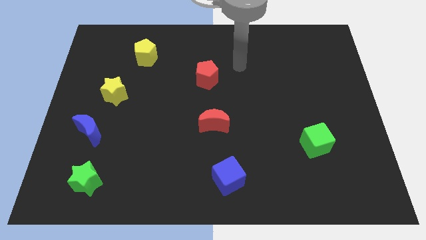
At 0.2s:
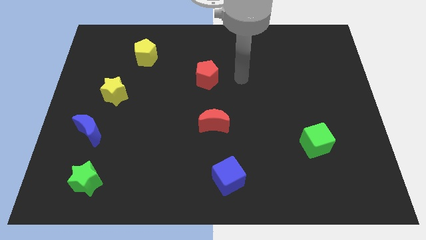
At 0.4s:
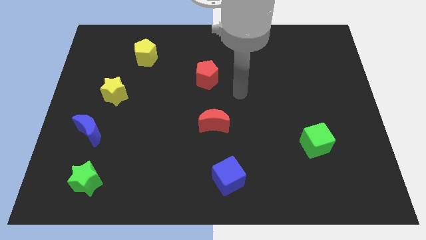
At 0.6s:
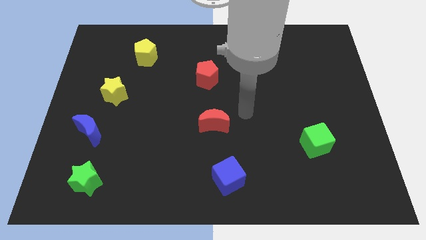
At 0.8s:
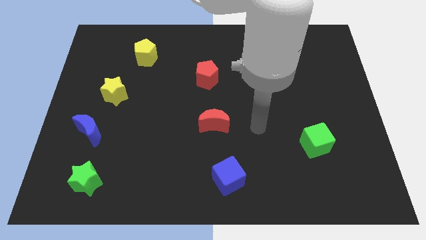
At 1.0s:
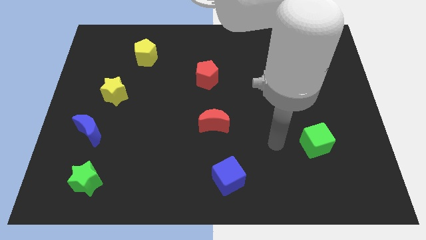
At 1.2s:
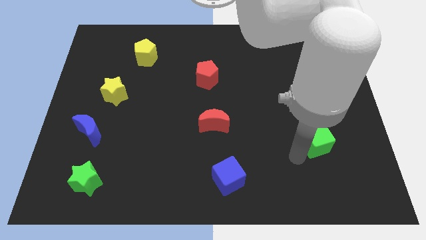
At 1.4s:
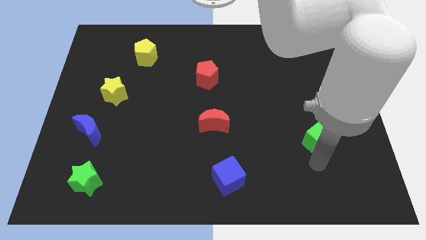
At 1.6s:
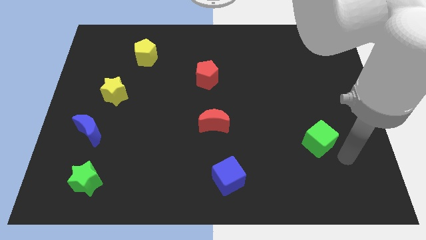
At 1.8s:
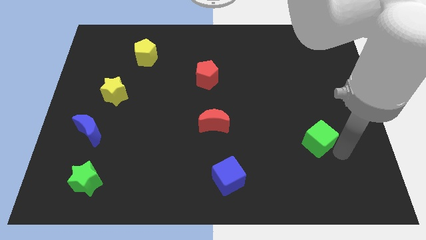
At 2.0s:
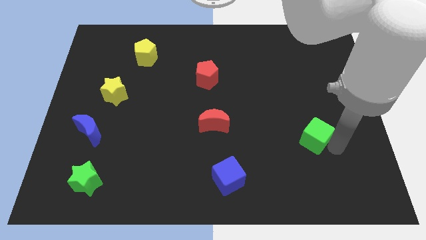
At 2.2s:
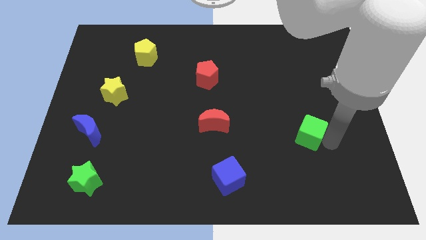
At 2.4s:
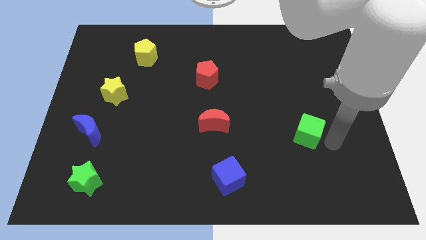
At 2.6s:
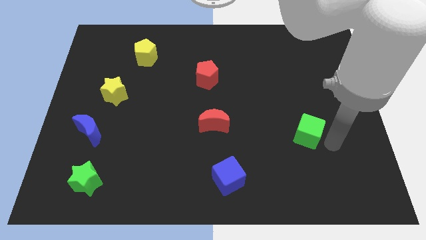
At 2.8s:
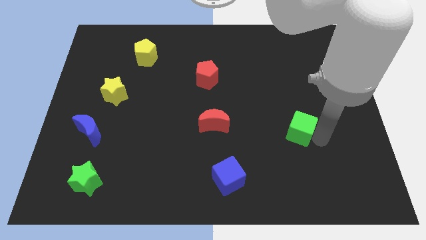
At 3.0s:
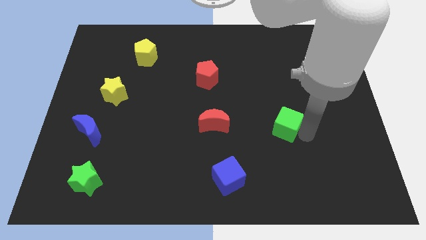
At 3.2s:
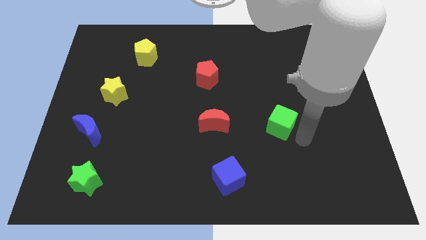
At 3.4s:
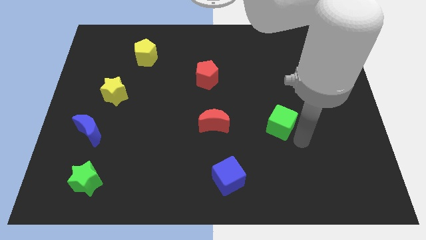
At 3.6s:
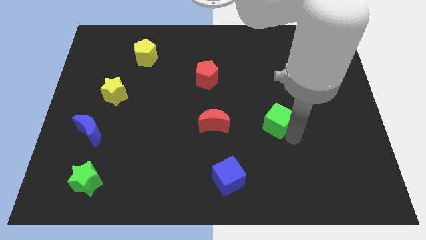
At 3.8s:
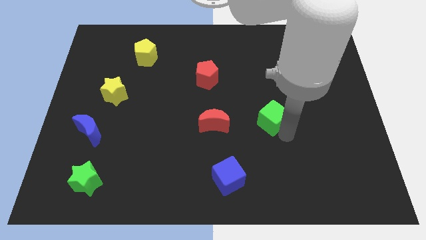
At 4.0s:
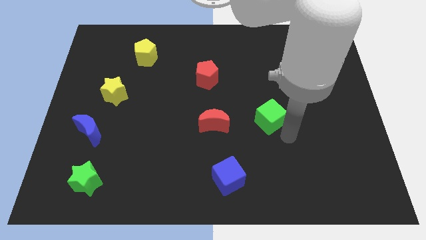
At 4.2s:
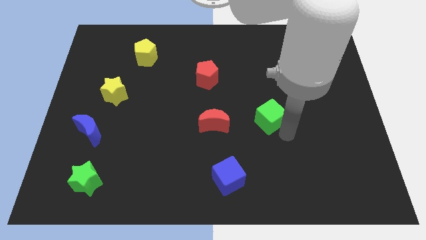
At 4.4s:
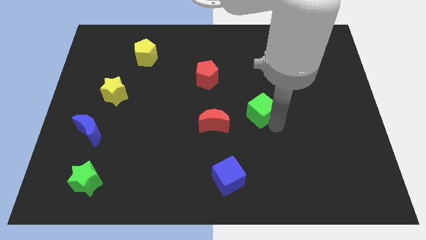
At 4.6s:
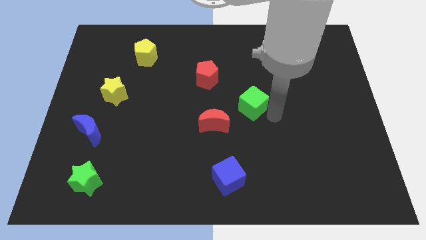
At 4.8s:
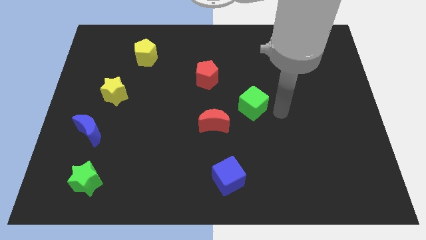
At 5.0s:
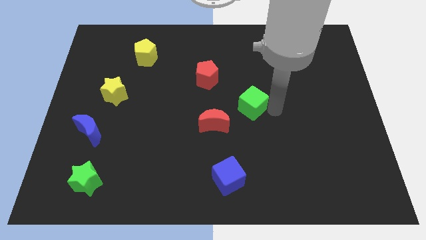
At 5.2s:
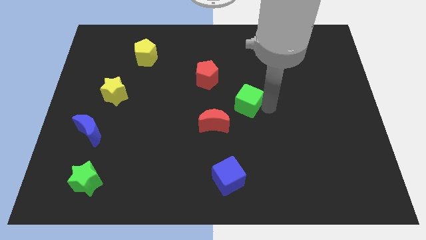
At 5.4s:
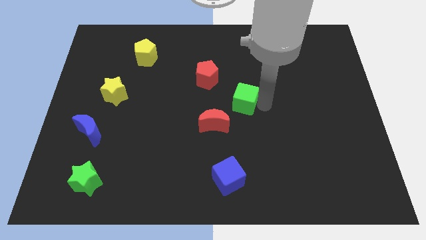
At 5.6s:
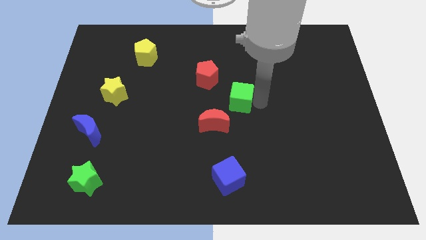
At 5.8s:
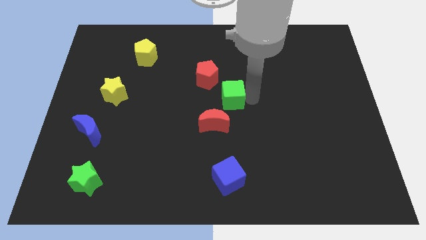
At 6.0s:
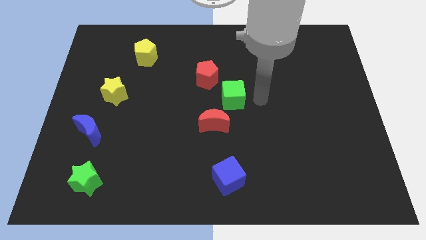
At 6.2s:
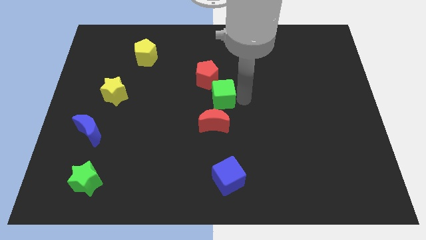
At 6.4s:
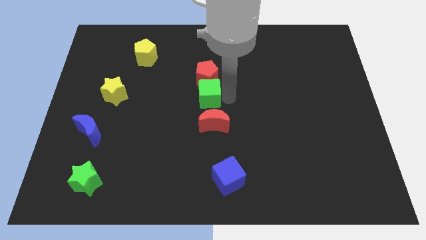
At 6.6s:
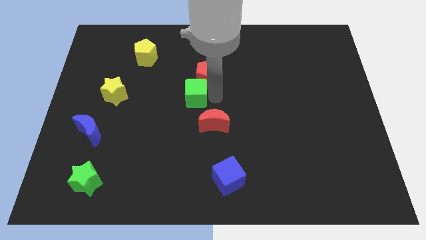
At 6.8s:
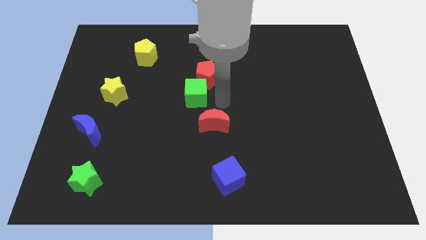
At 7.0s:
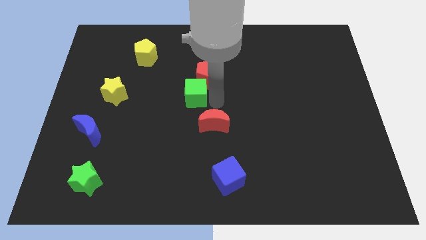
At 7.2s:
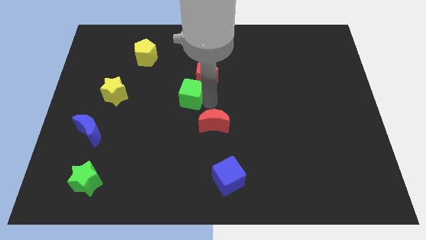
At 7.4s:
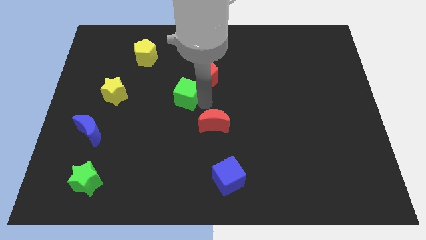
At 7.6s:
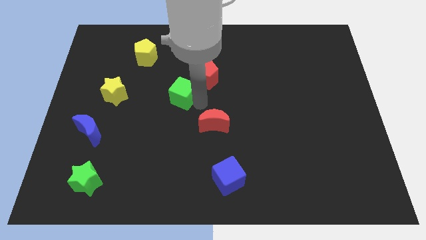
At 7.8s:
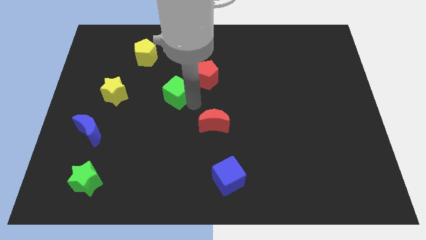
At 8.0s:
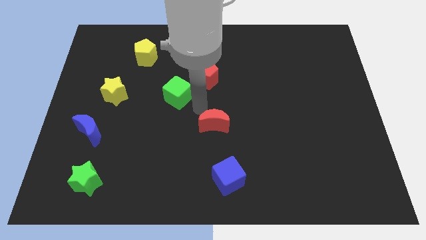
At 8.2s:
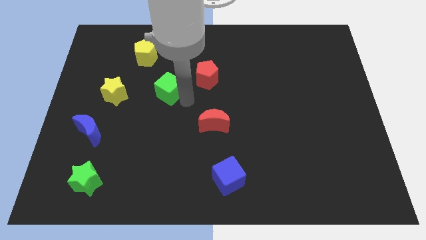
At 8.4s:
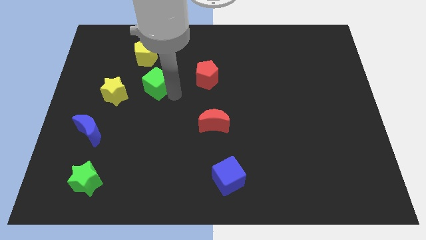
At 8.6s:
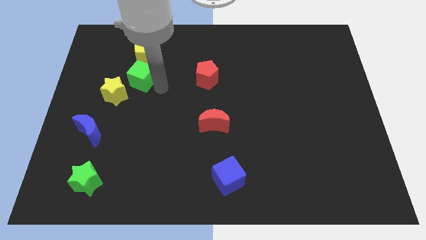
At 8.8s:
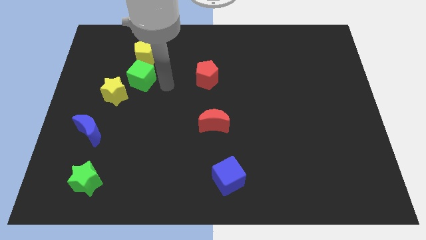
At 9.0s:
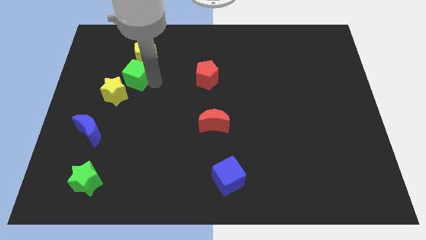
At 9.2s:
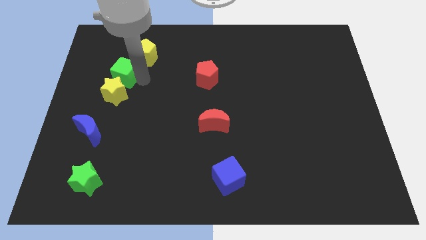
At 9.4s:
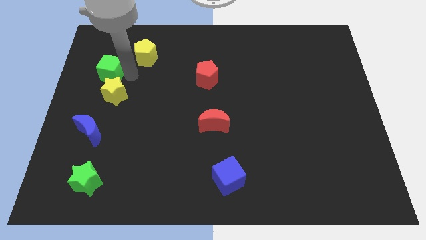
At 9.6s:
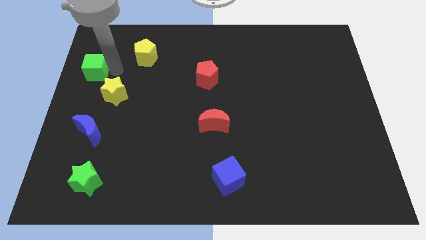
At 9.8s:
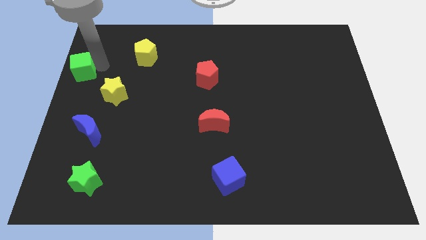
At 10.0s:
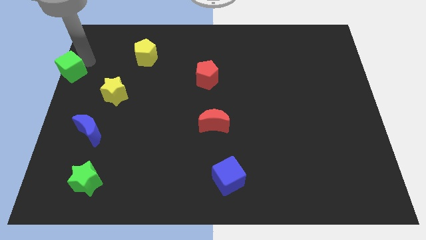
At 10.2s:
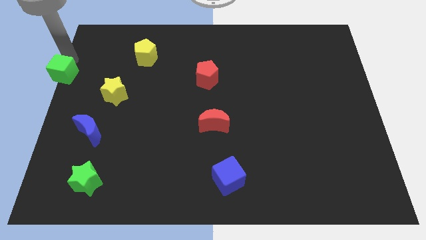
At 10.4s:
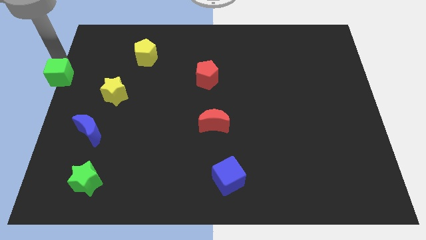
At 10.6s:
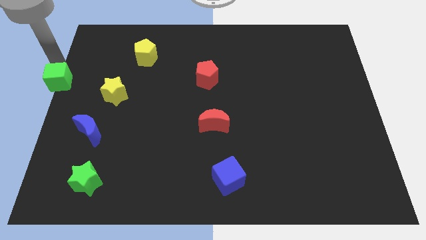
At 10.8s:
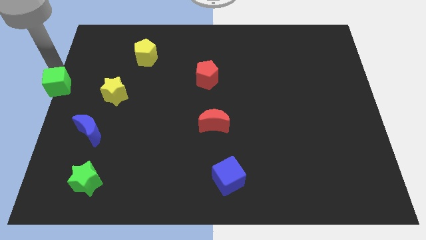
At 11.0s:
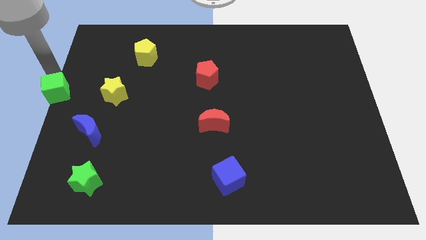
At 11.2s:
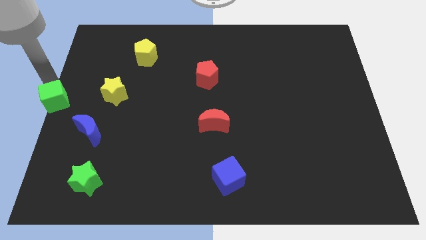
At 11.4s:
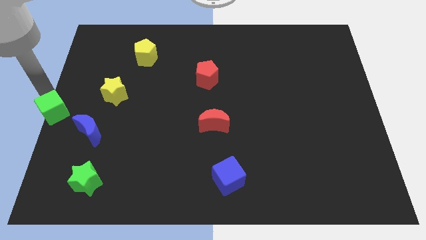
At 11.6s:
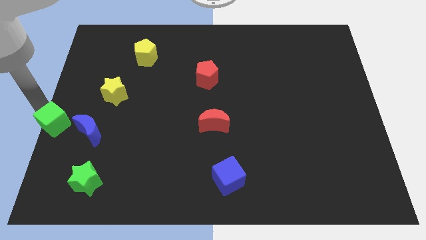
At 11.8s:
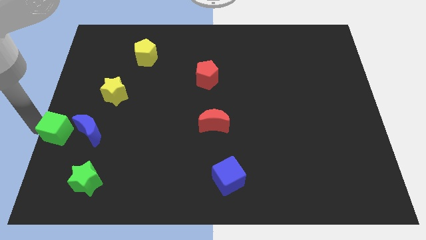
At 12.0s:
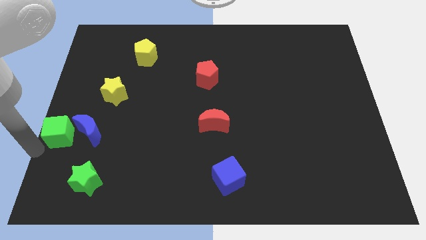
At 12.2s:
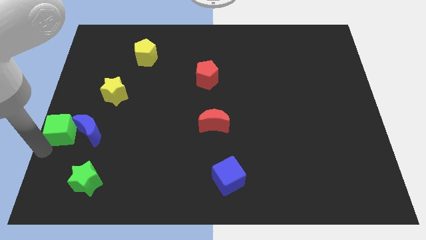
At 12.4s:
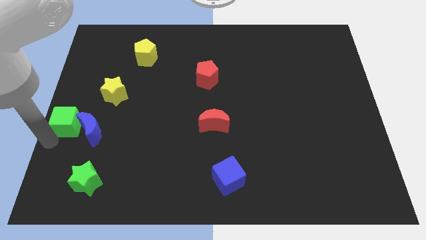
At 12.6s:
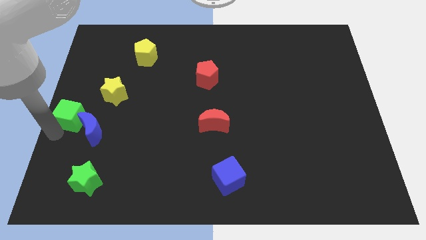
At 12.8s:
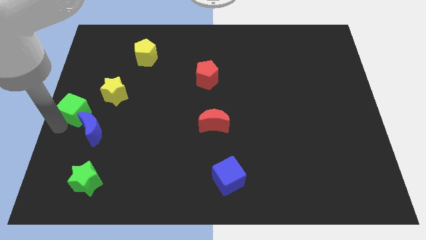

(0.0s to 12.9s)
push the green cube above the blue moon

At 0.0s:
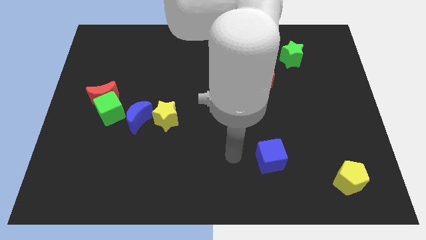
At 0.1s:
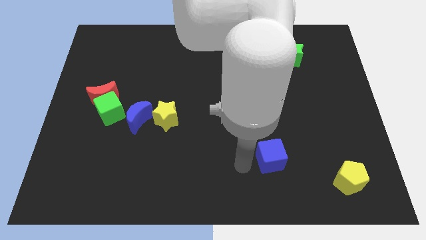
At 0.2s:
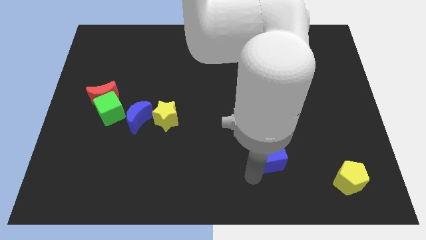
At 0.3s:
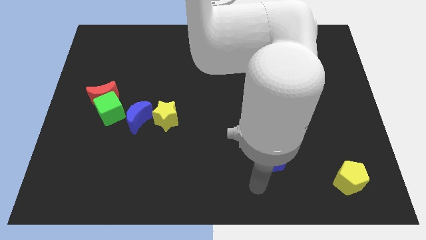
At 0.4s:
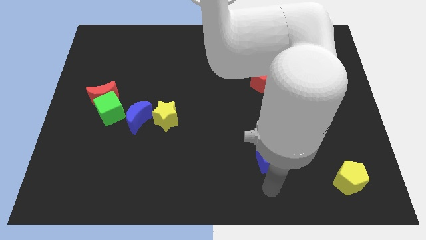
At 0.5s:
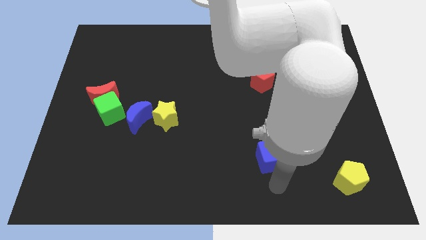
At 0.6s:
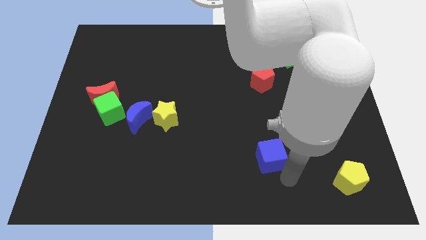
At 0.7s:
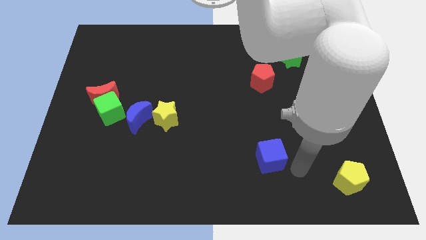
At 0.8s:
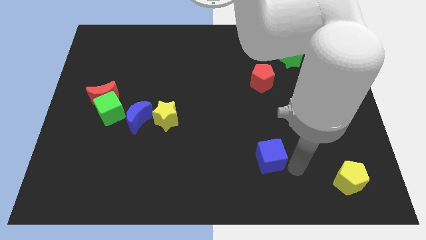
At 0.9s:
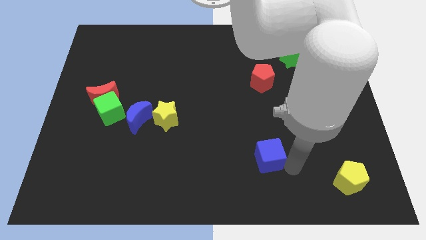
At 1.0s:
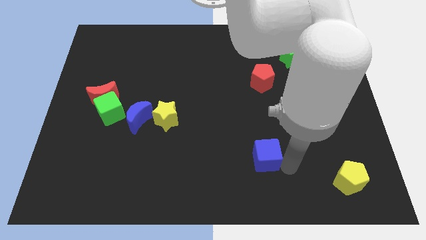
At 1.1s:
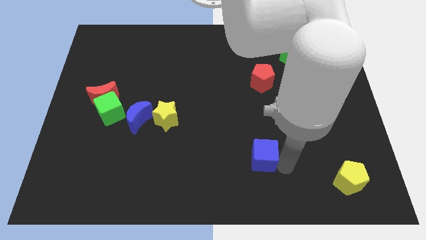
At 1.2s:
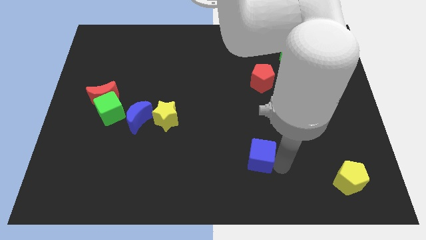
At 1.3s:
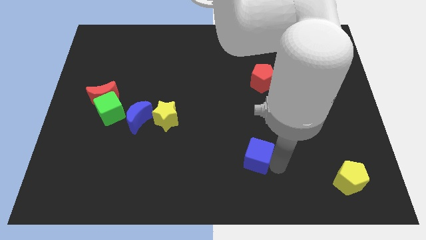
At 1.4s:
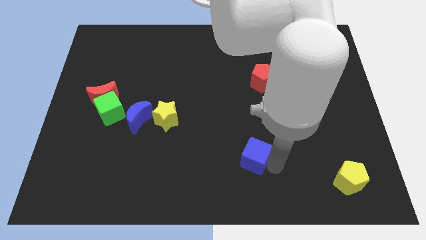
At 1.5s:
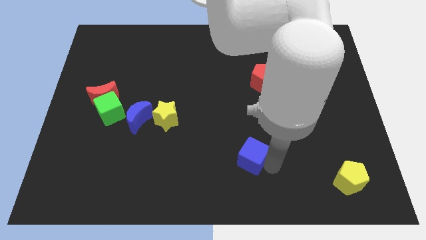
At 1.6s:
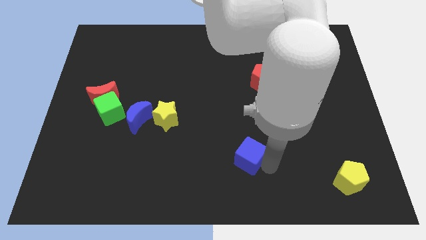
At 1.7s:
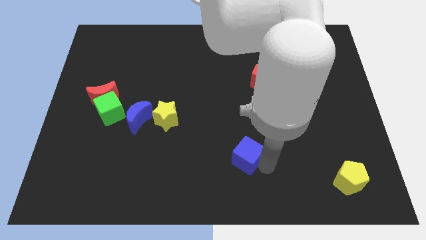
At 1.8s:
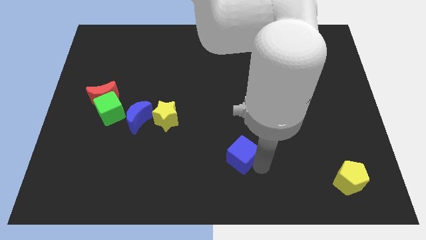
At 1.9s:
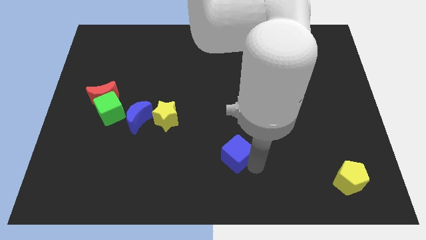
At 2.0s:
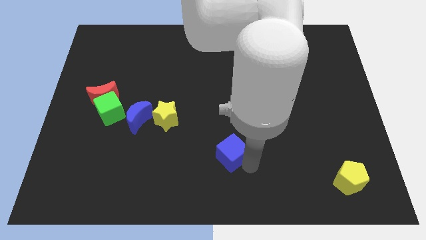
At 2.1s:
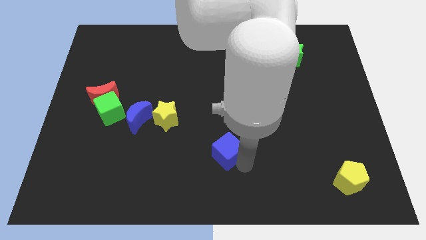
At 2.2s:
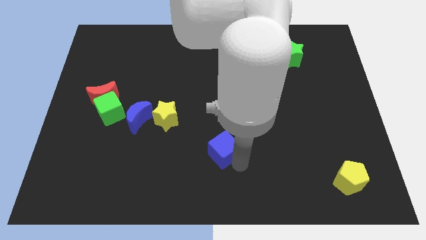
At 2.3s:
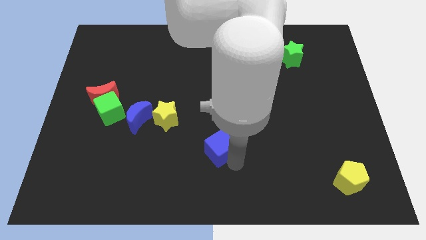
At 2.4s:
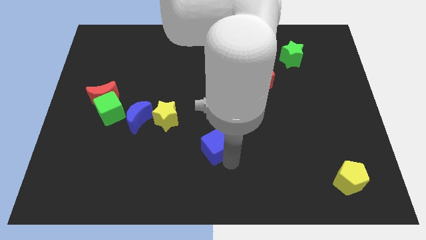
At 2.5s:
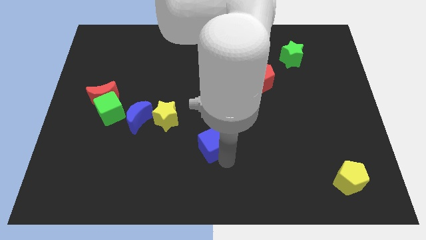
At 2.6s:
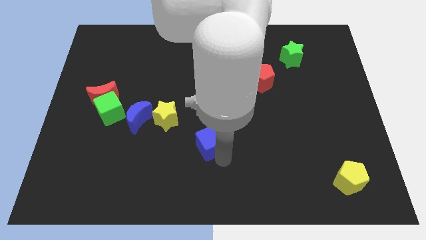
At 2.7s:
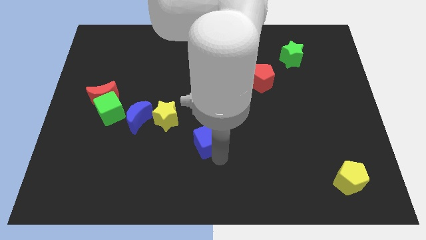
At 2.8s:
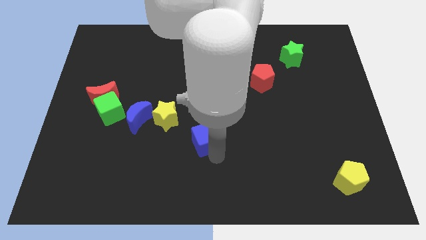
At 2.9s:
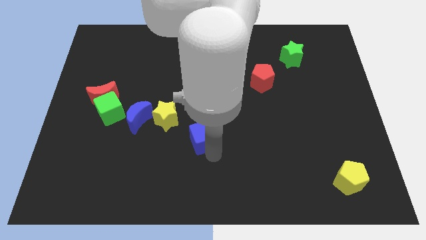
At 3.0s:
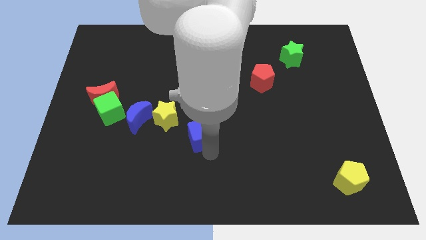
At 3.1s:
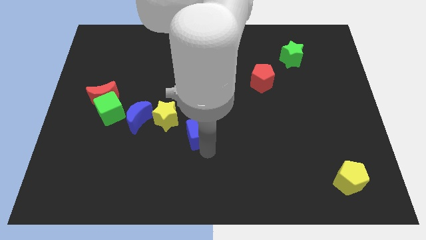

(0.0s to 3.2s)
put the blue cube just right of the yellow star
